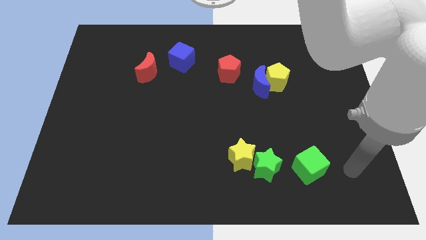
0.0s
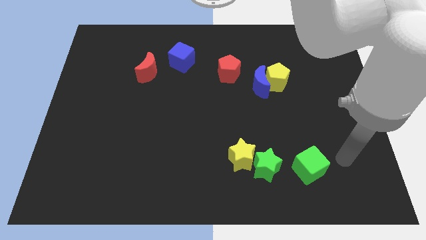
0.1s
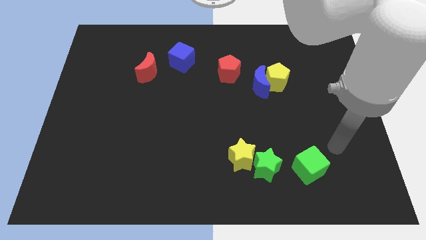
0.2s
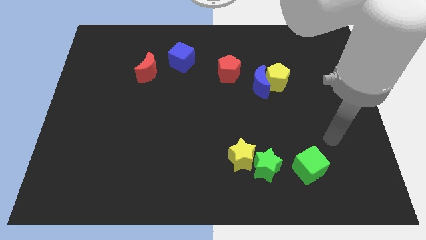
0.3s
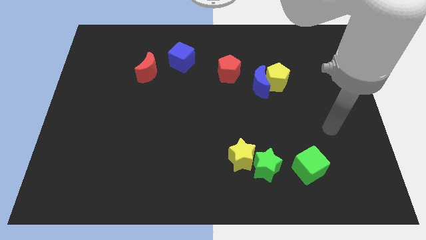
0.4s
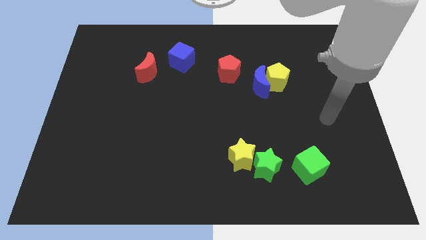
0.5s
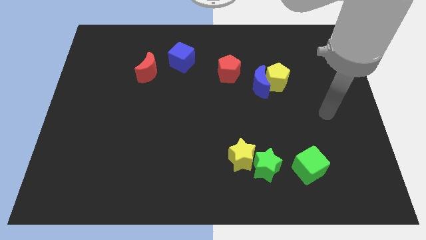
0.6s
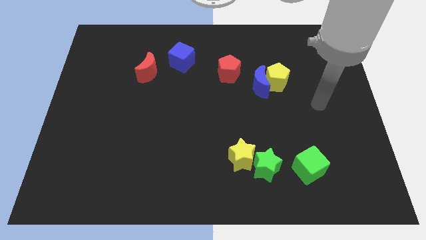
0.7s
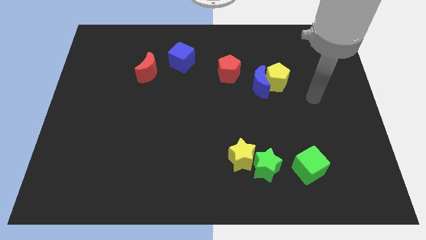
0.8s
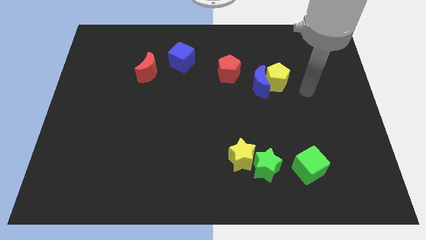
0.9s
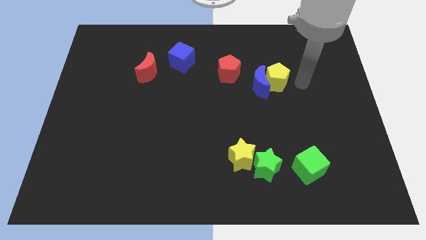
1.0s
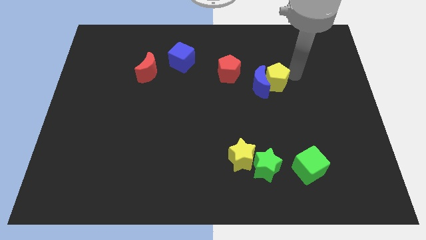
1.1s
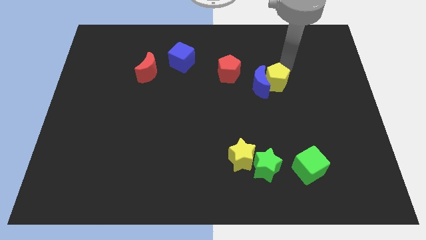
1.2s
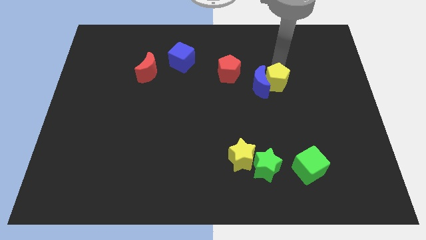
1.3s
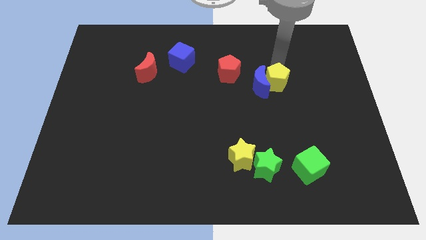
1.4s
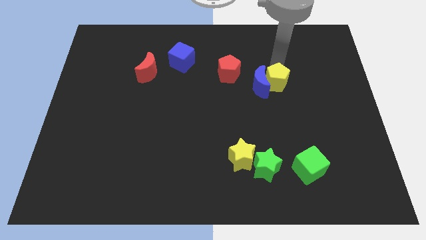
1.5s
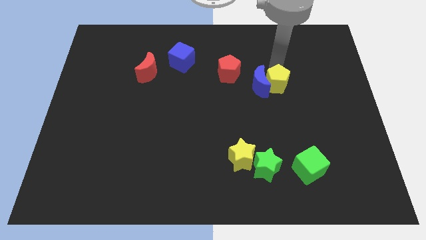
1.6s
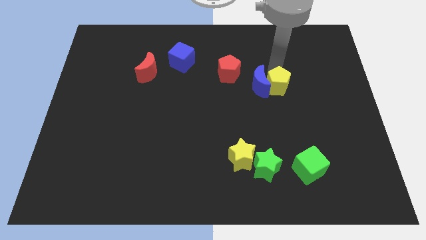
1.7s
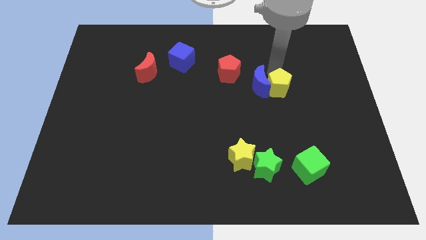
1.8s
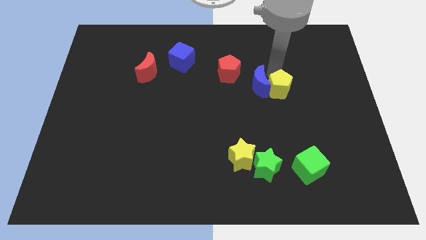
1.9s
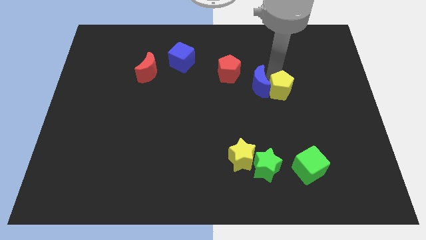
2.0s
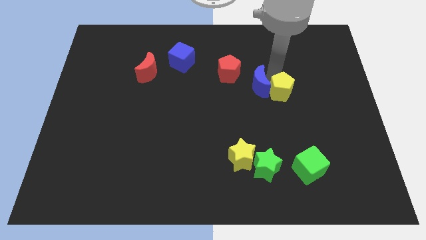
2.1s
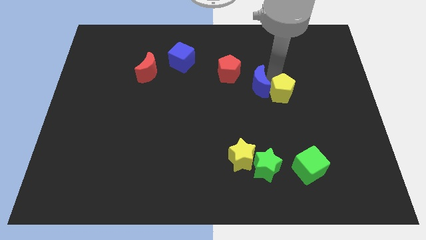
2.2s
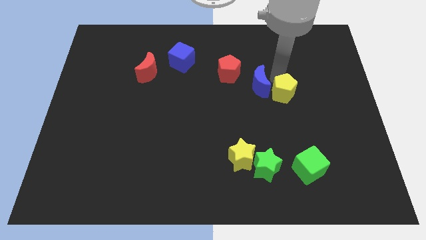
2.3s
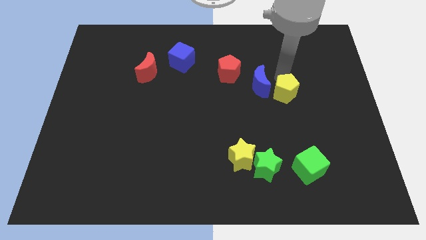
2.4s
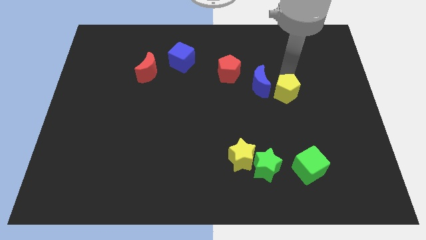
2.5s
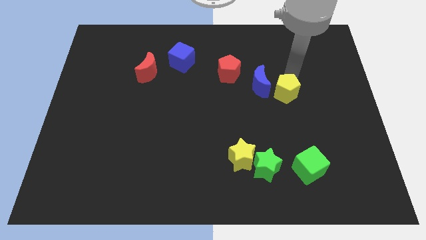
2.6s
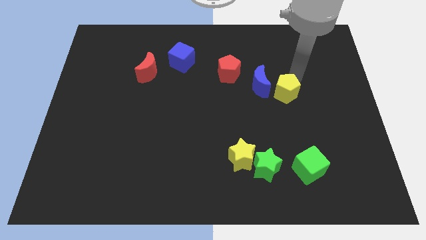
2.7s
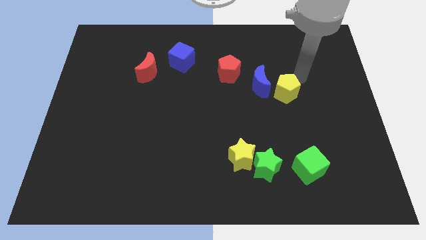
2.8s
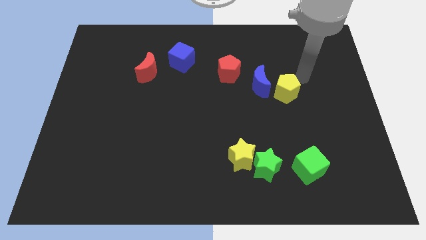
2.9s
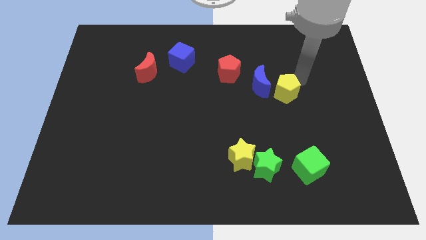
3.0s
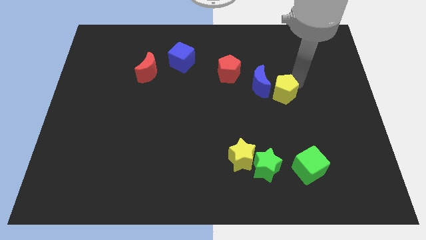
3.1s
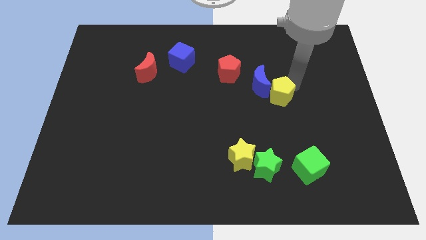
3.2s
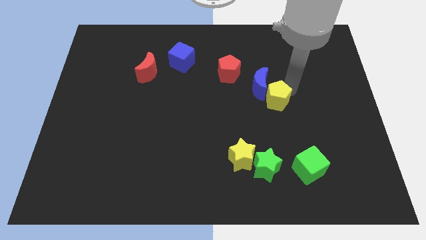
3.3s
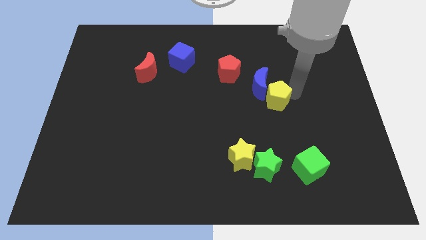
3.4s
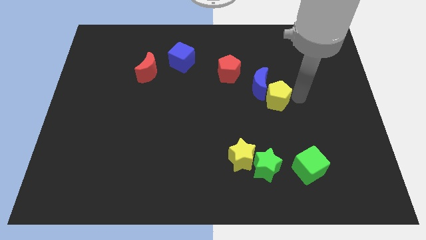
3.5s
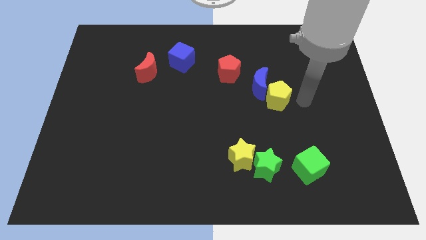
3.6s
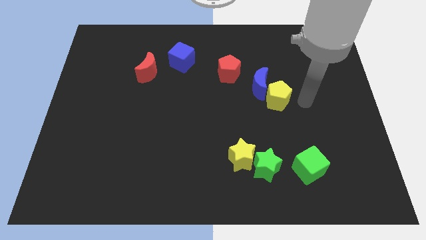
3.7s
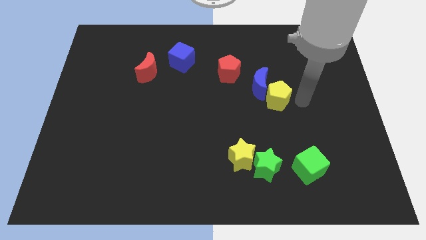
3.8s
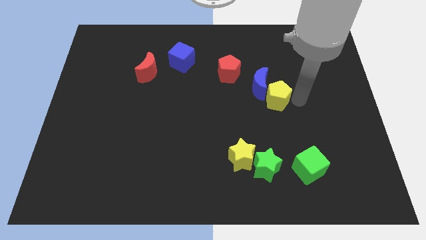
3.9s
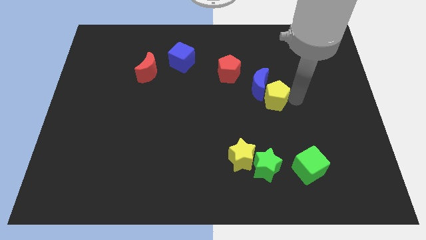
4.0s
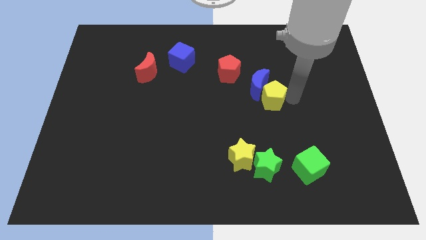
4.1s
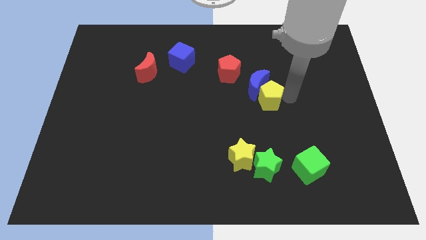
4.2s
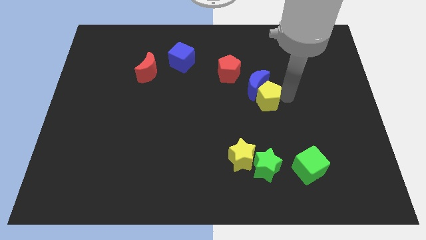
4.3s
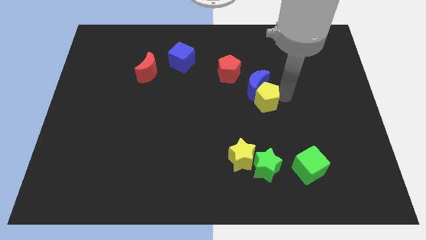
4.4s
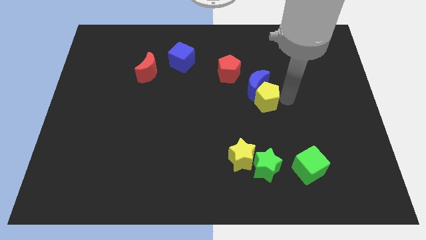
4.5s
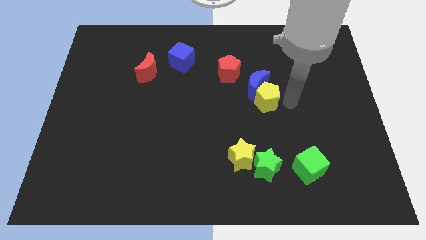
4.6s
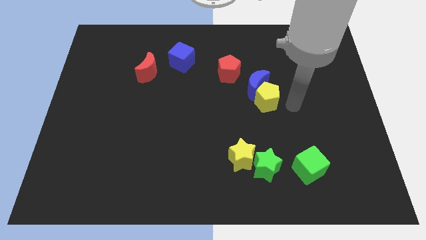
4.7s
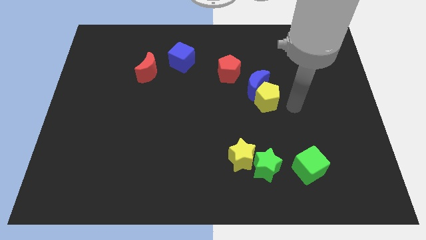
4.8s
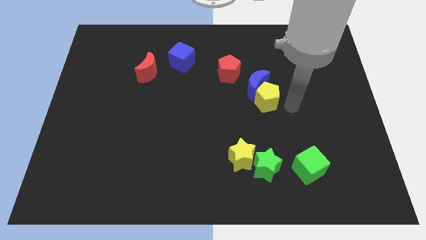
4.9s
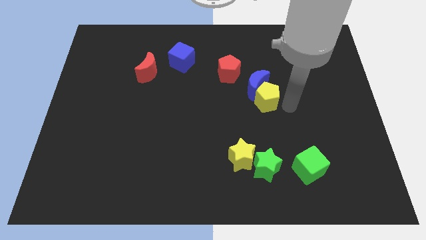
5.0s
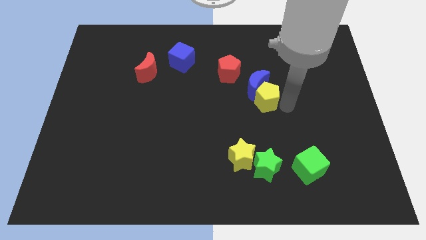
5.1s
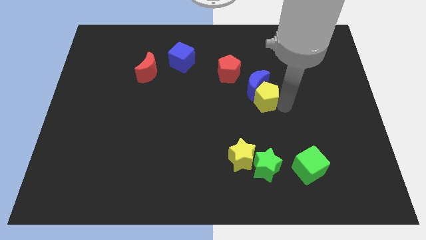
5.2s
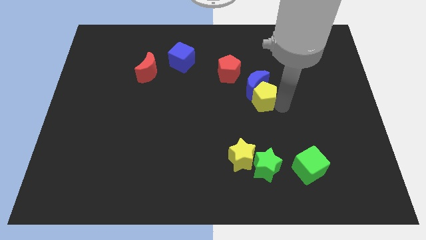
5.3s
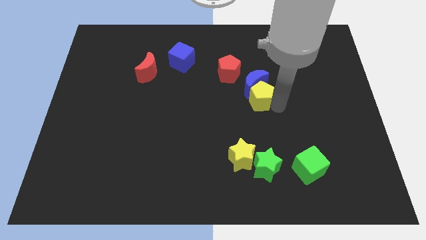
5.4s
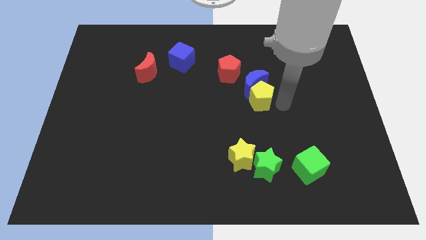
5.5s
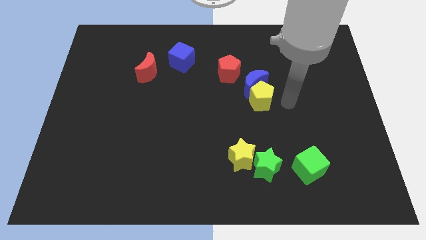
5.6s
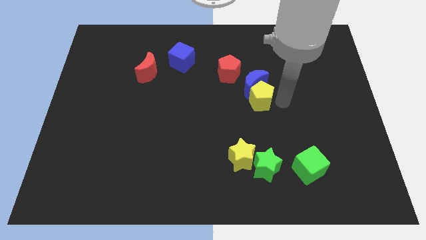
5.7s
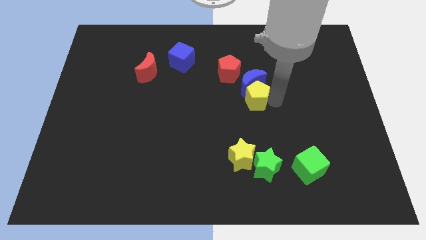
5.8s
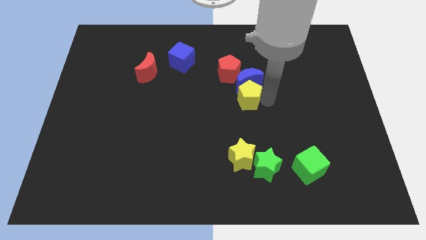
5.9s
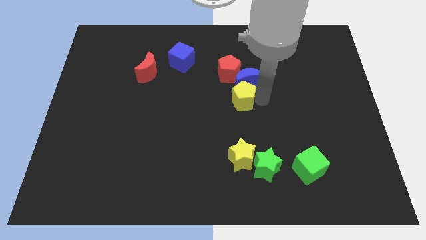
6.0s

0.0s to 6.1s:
slightly move the yellow pentagon left

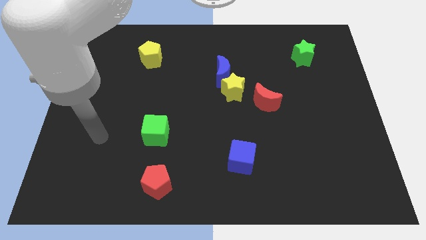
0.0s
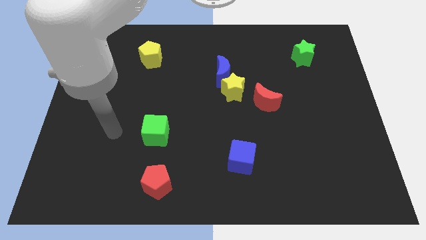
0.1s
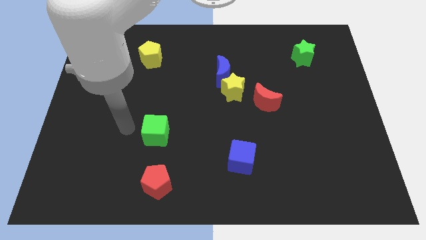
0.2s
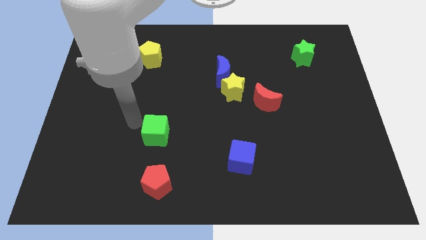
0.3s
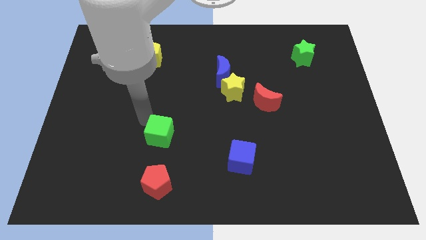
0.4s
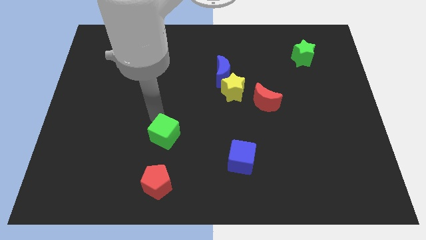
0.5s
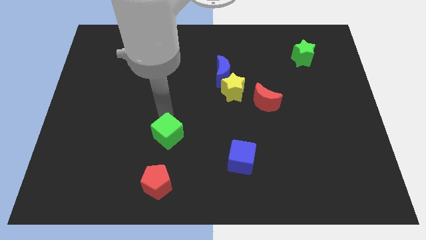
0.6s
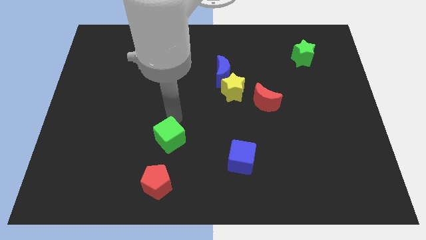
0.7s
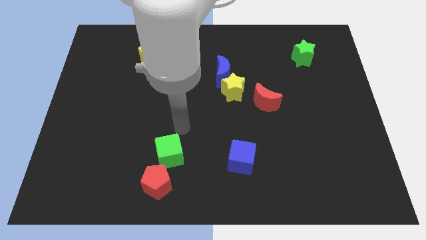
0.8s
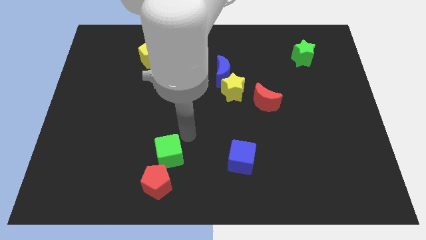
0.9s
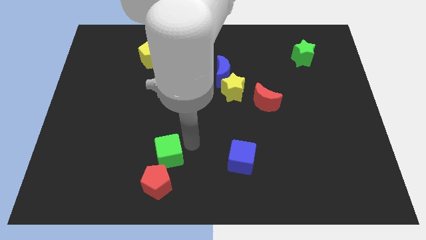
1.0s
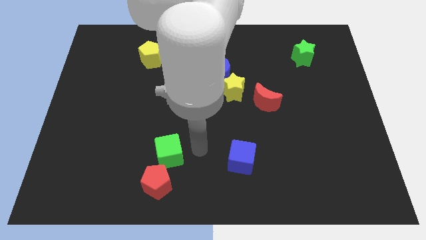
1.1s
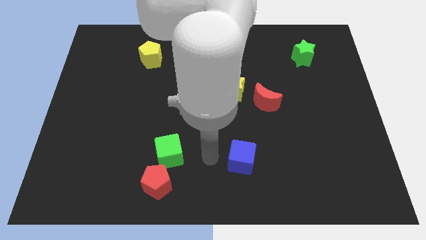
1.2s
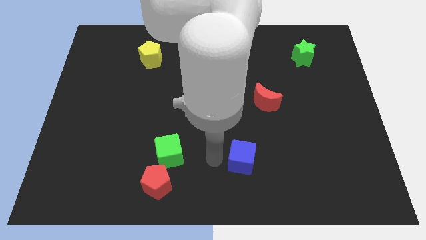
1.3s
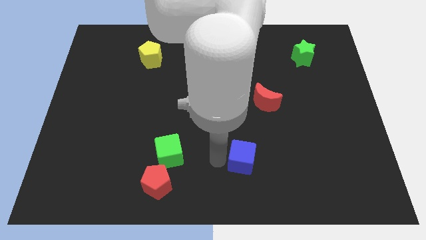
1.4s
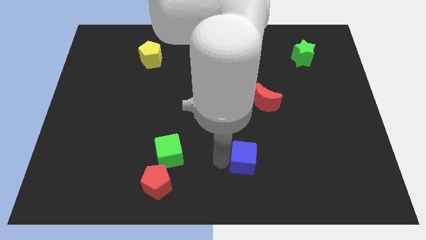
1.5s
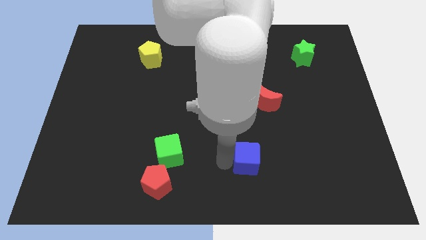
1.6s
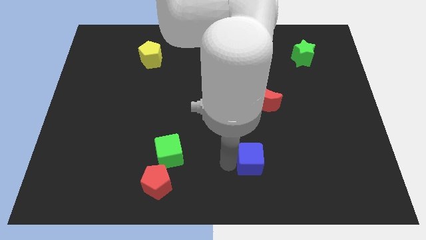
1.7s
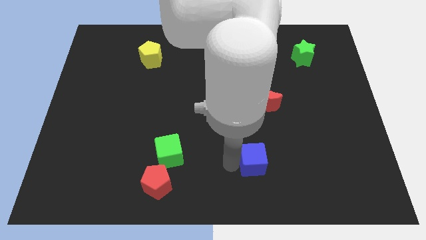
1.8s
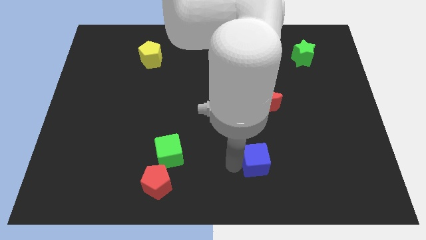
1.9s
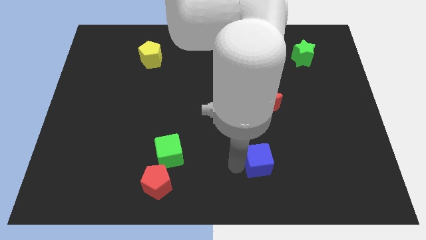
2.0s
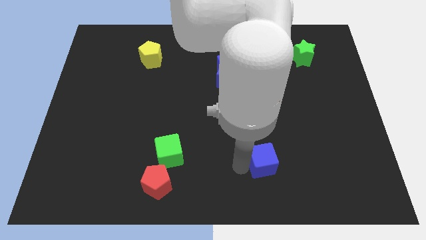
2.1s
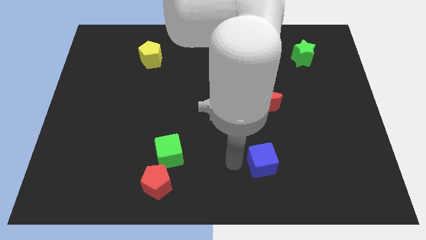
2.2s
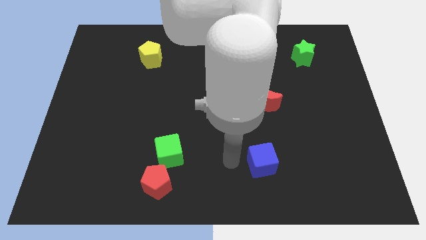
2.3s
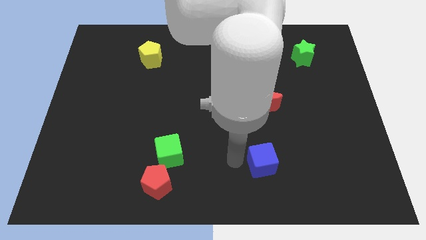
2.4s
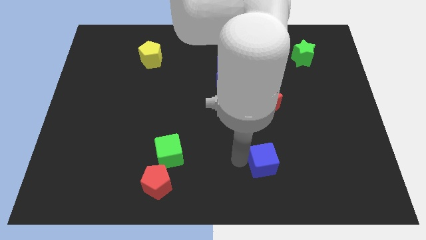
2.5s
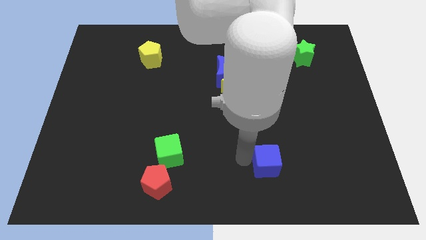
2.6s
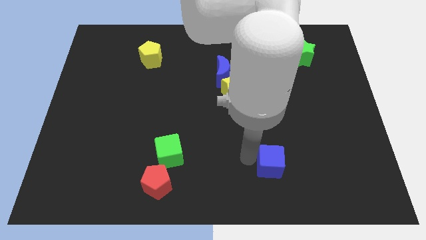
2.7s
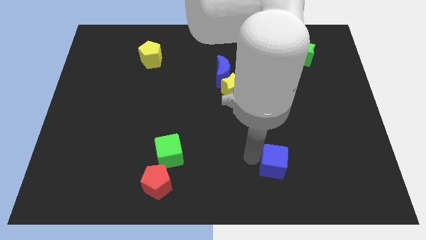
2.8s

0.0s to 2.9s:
slide the blue cube a little right
